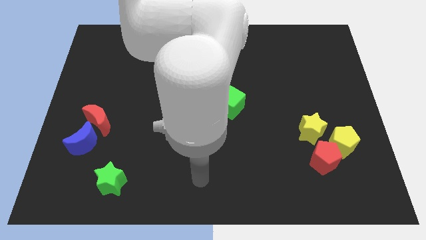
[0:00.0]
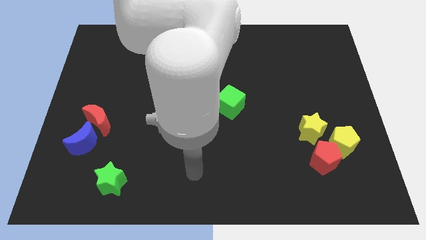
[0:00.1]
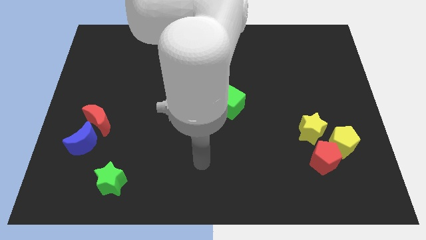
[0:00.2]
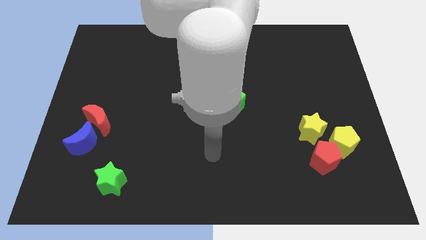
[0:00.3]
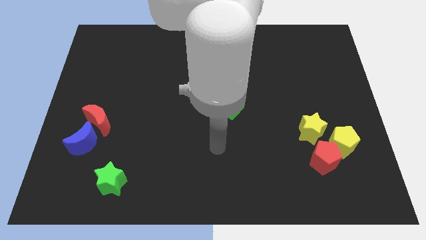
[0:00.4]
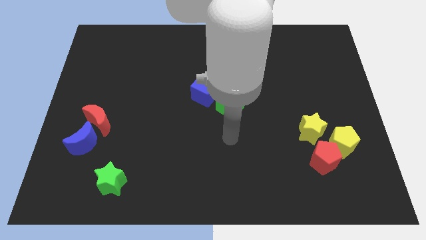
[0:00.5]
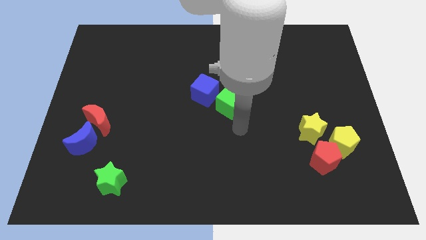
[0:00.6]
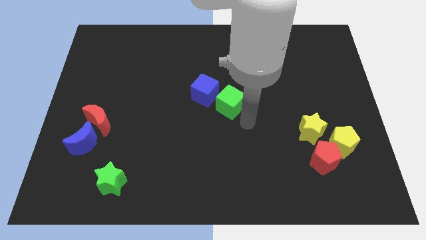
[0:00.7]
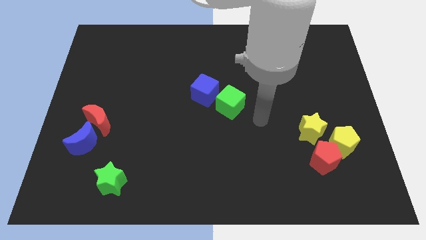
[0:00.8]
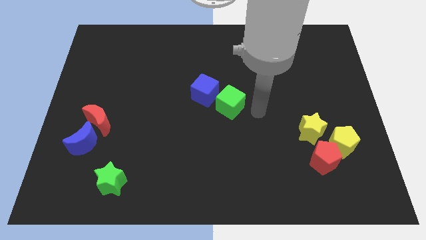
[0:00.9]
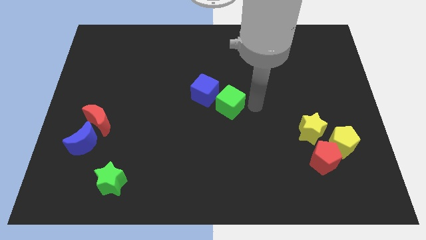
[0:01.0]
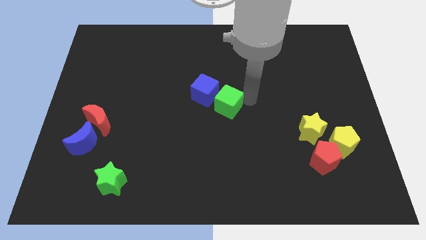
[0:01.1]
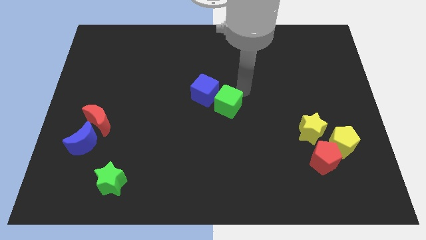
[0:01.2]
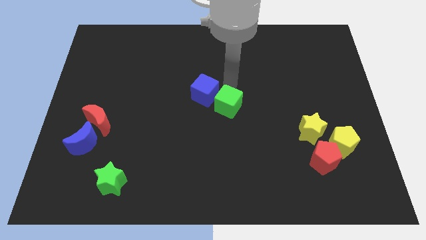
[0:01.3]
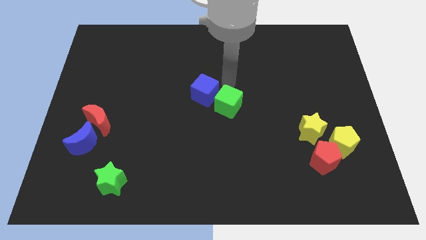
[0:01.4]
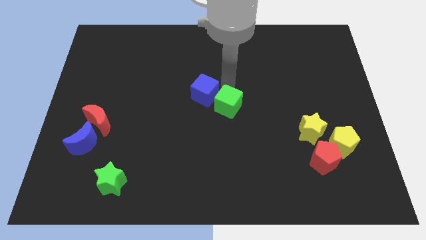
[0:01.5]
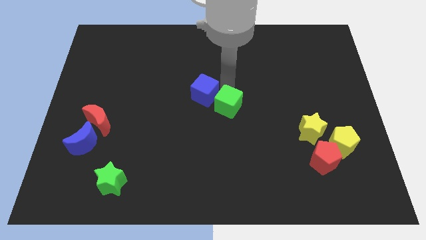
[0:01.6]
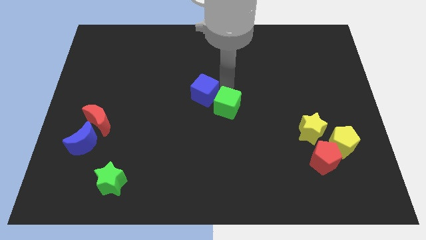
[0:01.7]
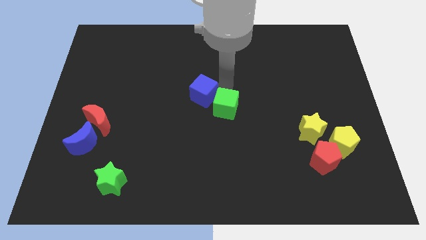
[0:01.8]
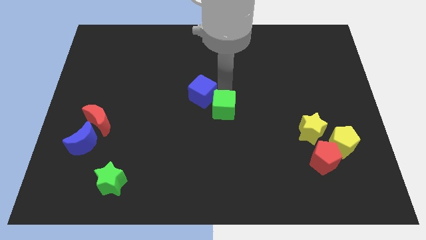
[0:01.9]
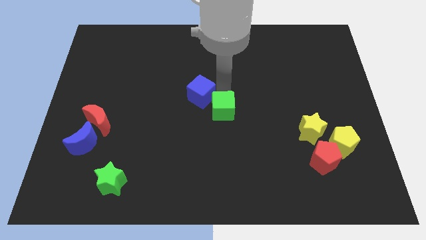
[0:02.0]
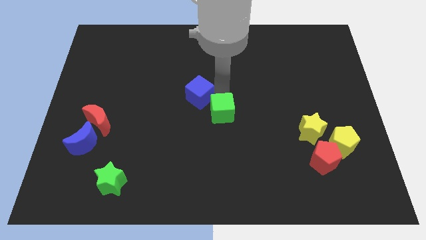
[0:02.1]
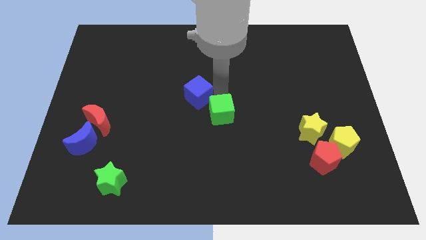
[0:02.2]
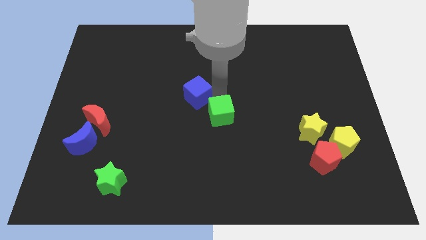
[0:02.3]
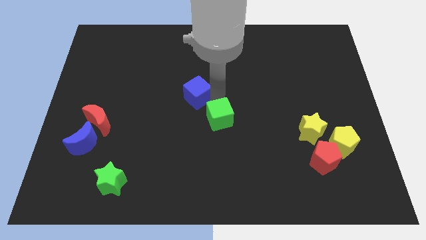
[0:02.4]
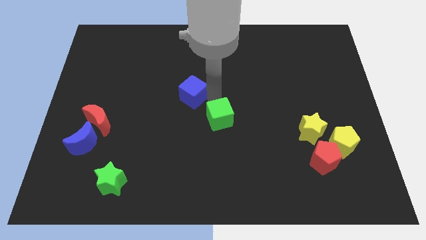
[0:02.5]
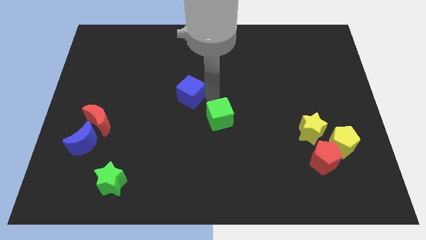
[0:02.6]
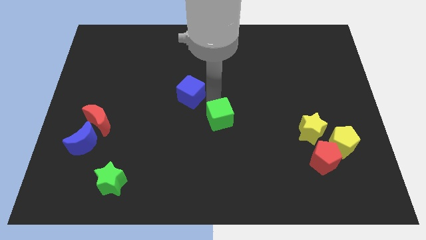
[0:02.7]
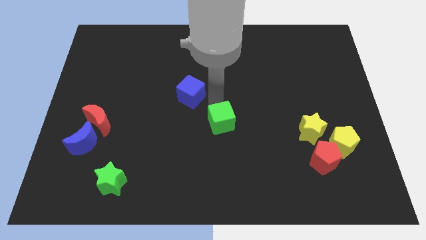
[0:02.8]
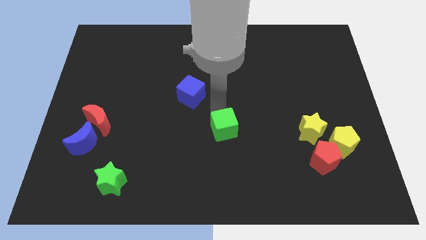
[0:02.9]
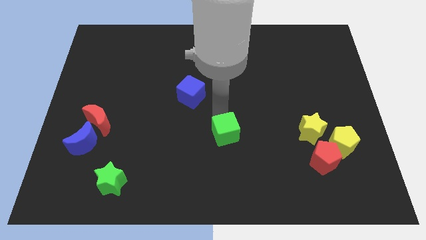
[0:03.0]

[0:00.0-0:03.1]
slightly push the green cube down

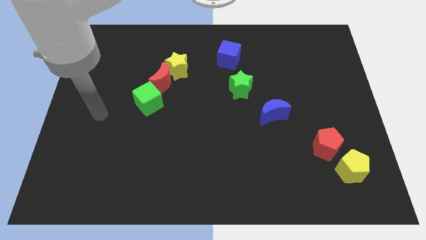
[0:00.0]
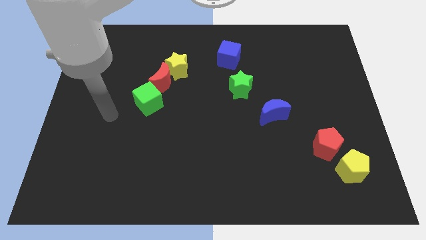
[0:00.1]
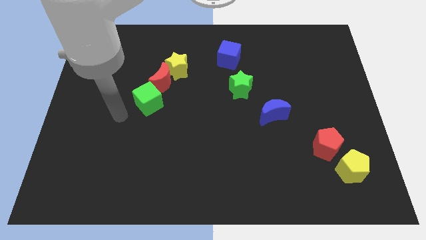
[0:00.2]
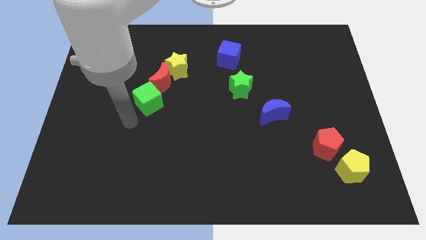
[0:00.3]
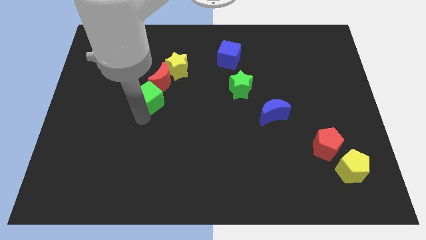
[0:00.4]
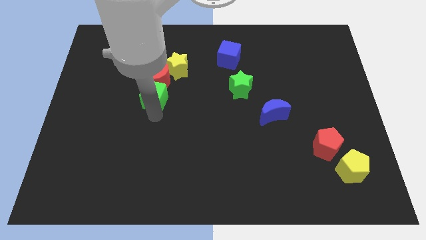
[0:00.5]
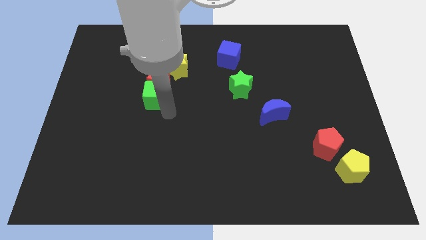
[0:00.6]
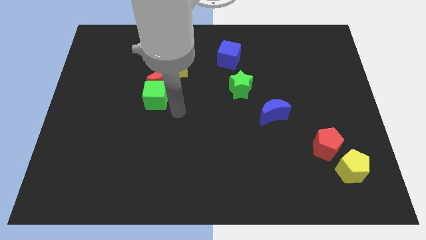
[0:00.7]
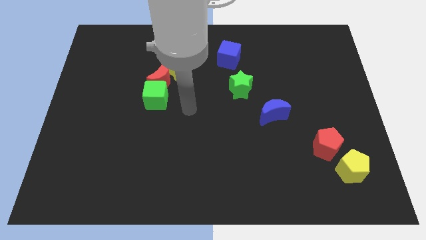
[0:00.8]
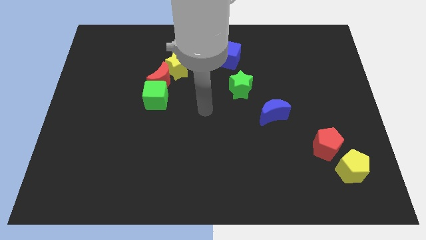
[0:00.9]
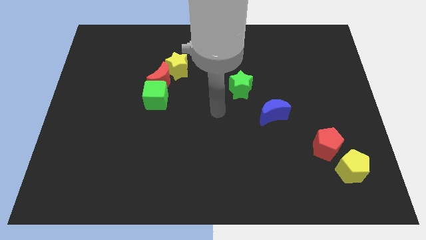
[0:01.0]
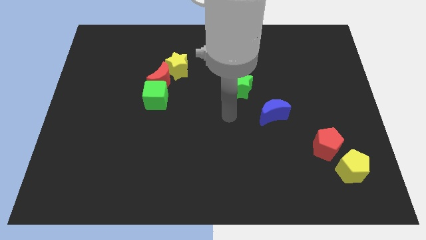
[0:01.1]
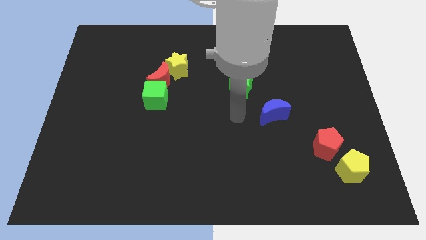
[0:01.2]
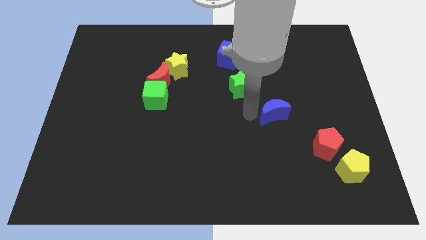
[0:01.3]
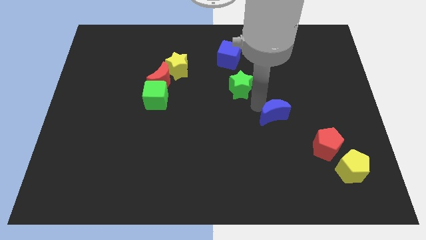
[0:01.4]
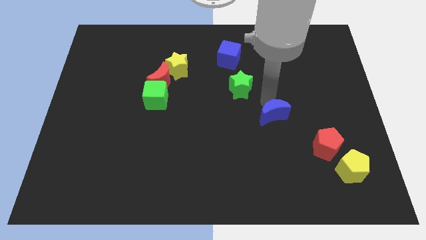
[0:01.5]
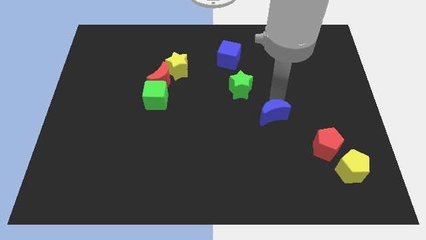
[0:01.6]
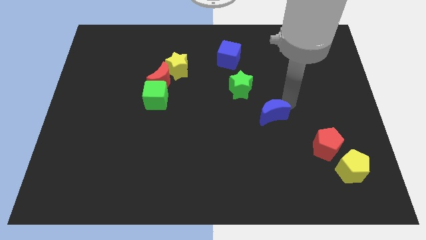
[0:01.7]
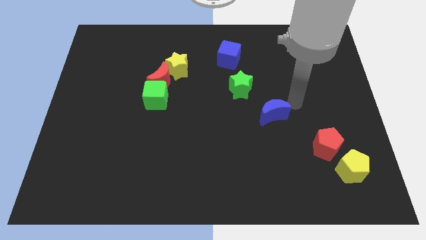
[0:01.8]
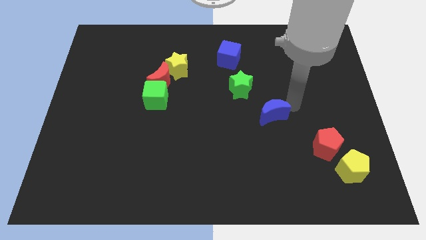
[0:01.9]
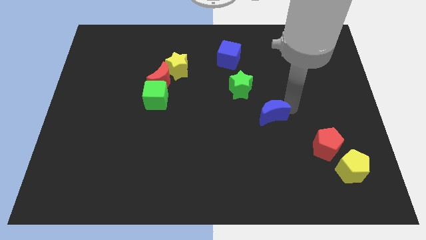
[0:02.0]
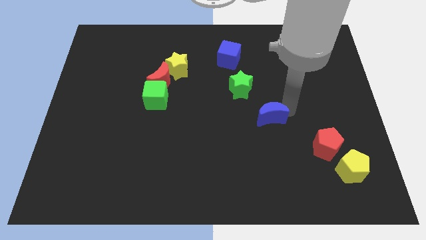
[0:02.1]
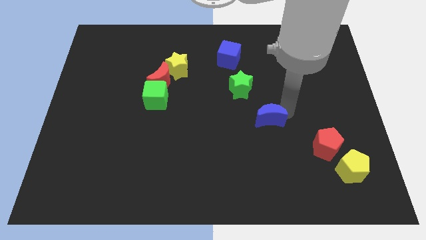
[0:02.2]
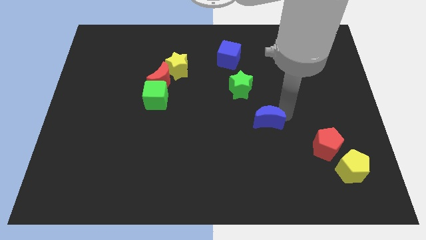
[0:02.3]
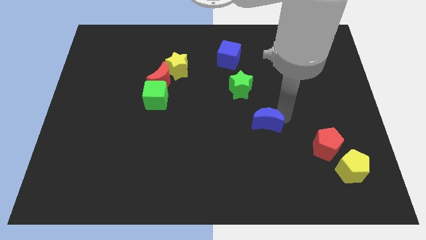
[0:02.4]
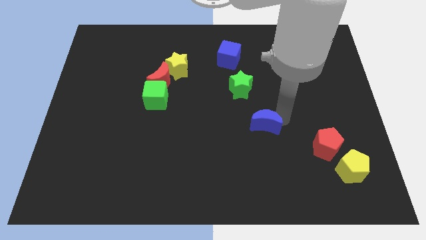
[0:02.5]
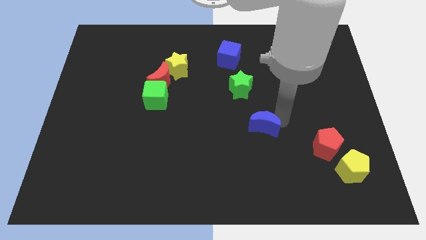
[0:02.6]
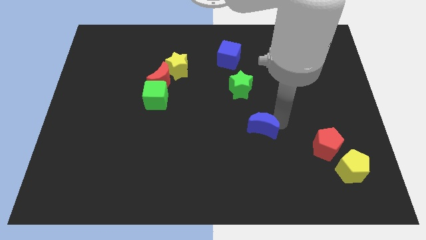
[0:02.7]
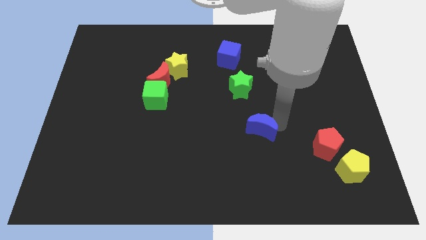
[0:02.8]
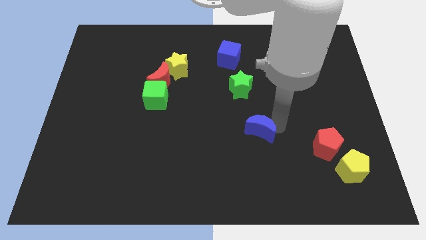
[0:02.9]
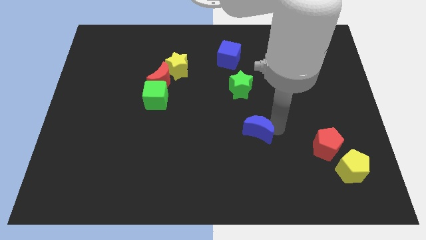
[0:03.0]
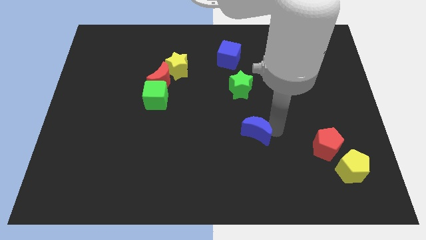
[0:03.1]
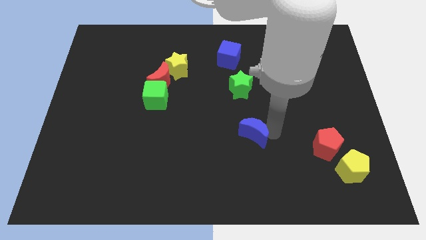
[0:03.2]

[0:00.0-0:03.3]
push the blue moon somewhat down and left

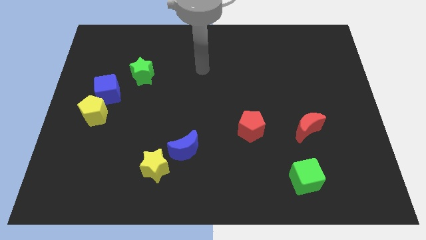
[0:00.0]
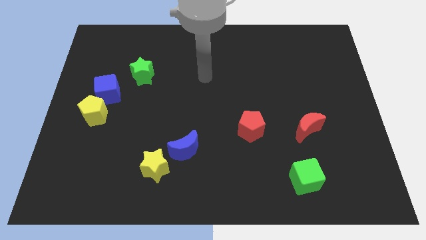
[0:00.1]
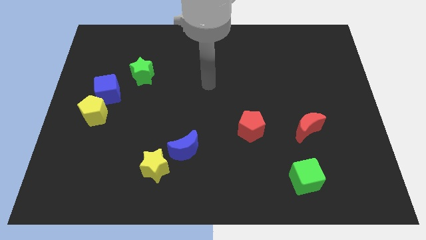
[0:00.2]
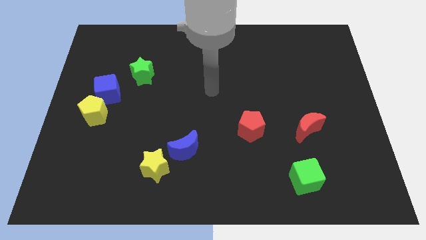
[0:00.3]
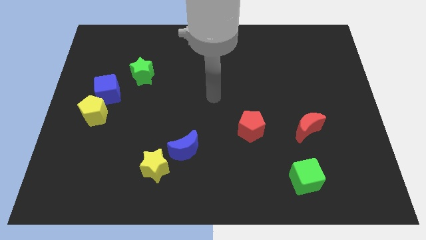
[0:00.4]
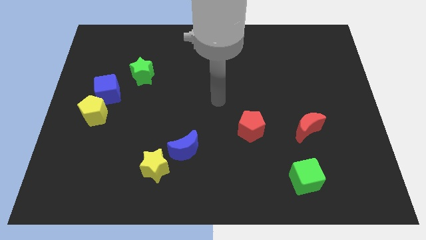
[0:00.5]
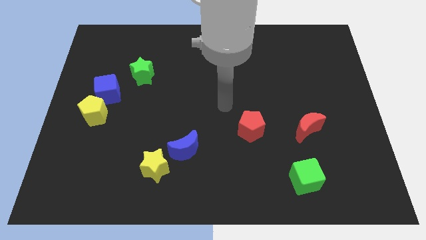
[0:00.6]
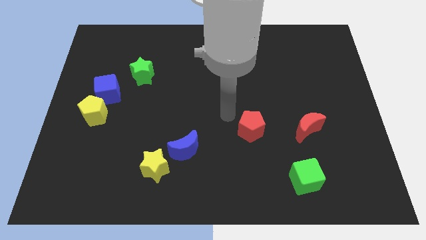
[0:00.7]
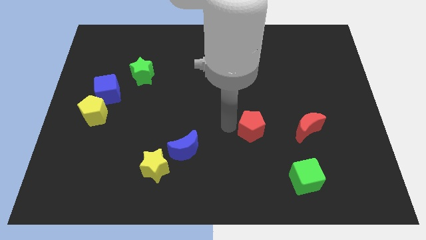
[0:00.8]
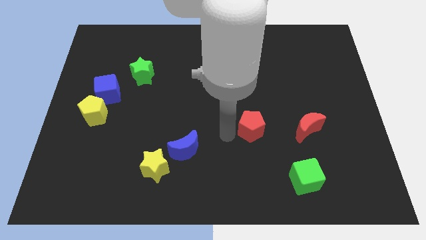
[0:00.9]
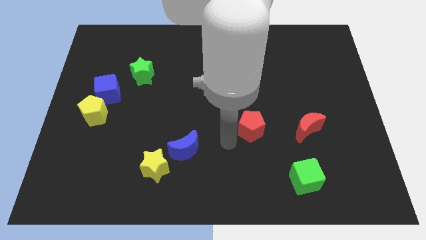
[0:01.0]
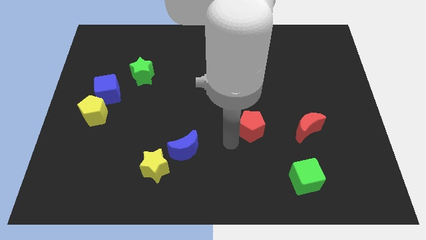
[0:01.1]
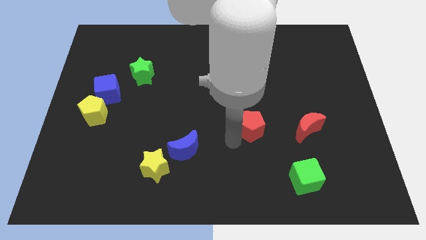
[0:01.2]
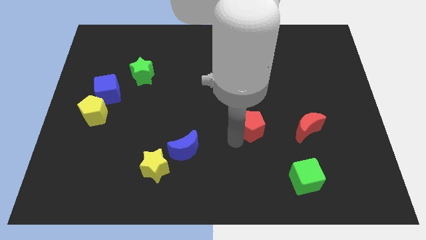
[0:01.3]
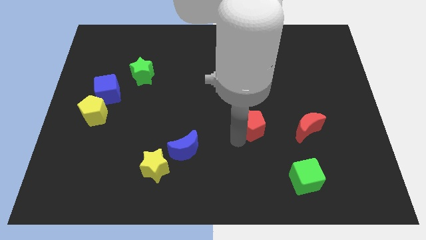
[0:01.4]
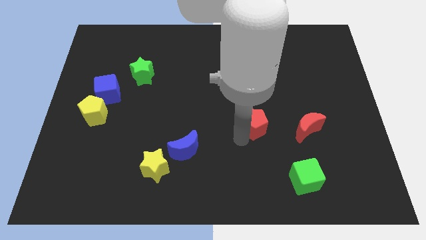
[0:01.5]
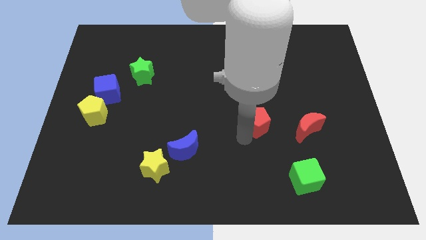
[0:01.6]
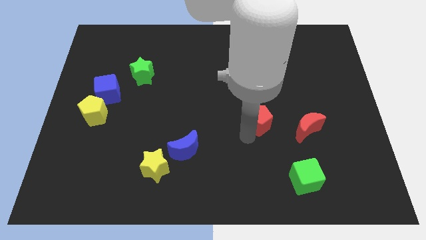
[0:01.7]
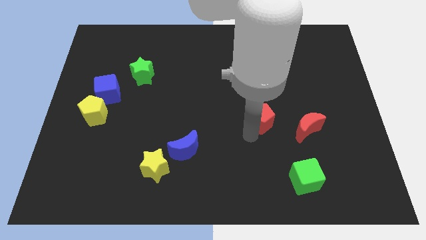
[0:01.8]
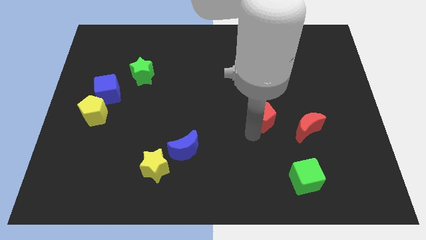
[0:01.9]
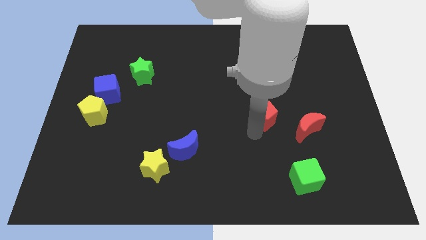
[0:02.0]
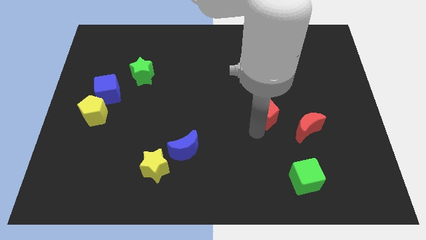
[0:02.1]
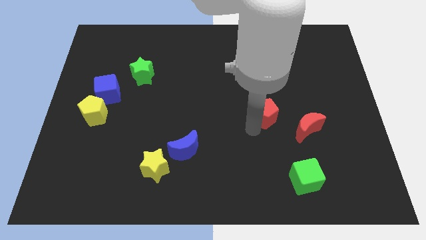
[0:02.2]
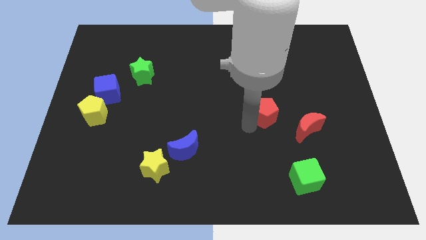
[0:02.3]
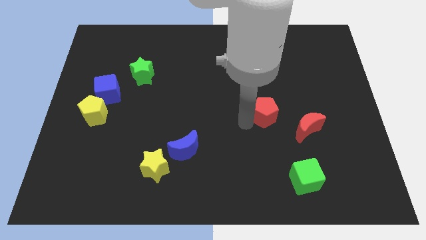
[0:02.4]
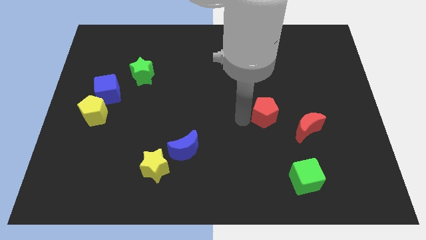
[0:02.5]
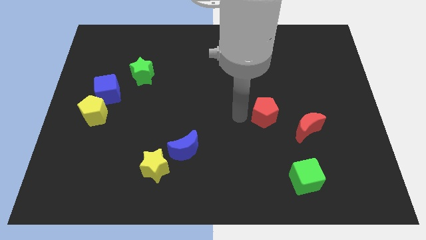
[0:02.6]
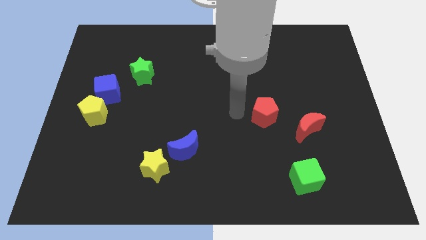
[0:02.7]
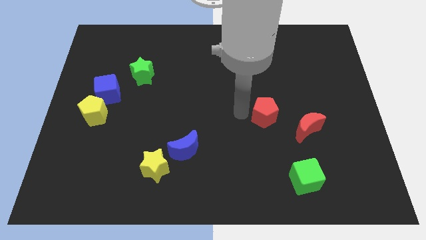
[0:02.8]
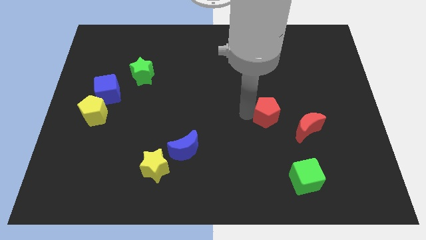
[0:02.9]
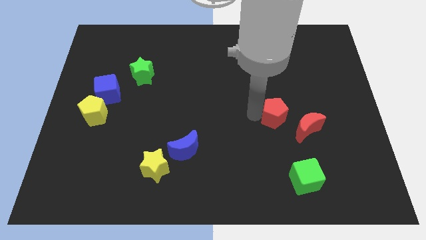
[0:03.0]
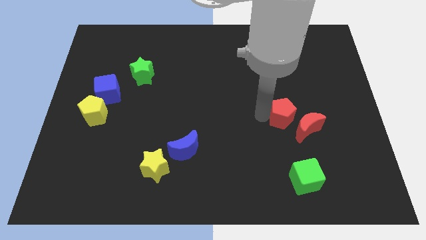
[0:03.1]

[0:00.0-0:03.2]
push the red pentagon right a little bit
